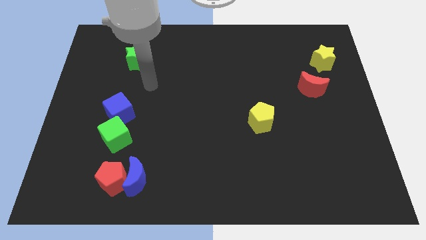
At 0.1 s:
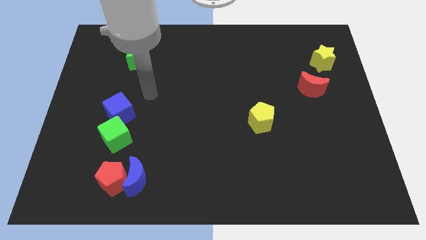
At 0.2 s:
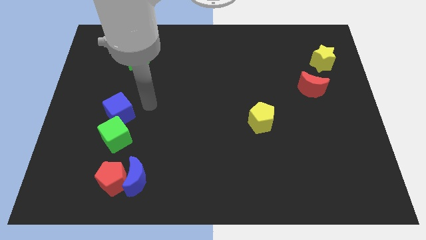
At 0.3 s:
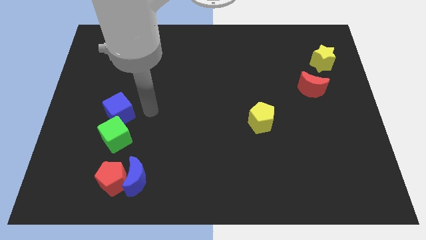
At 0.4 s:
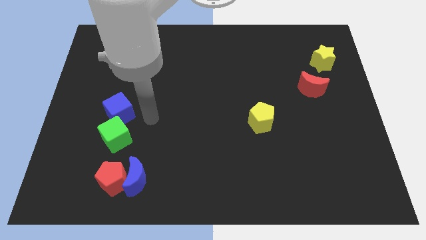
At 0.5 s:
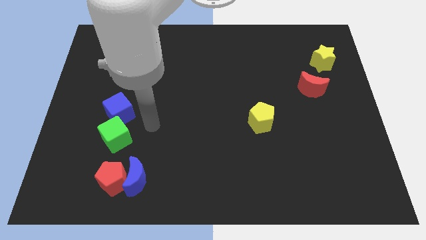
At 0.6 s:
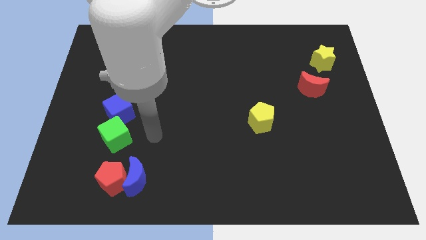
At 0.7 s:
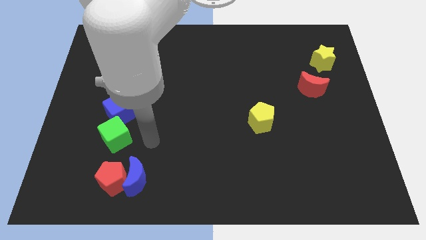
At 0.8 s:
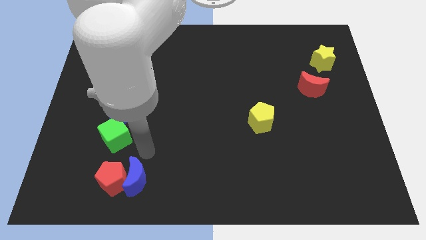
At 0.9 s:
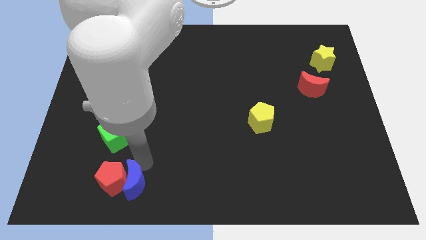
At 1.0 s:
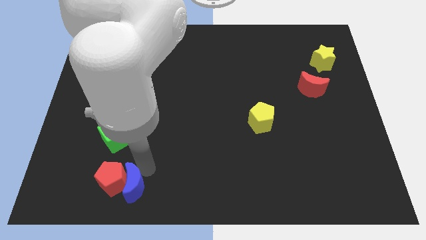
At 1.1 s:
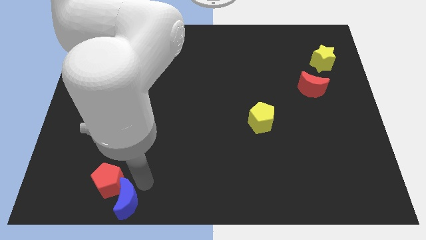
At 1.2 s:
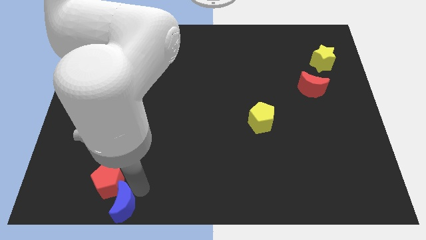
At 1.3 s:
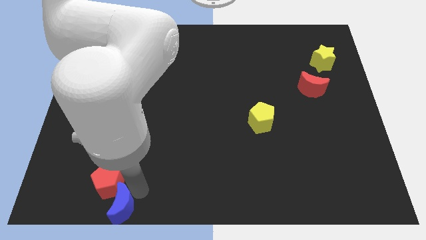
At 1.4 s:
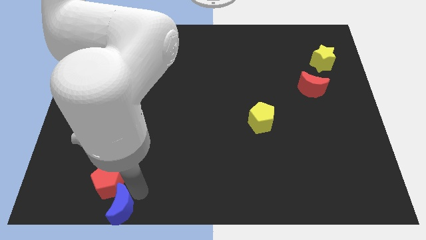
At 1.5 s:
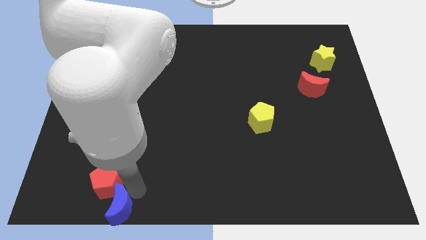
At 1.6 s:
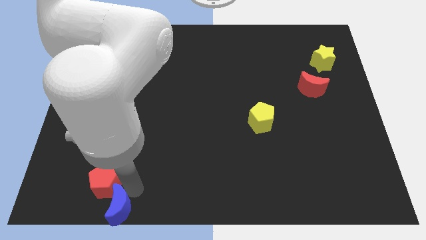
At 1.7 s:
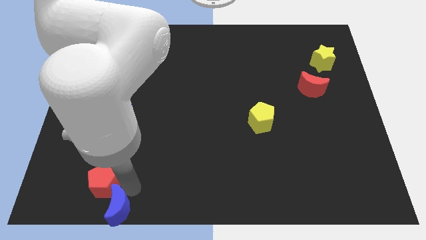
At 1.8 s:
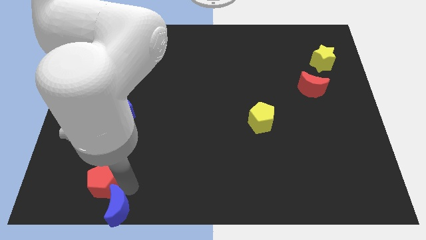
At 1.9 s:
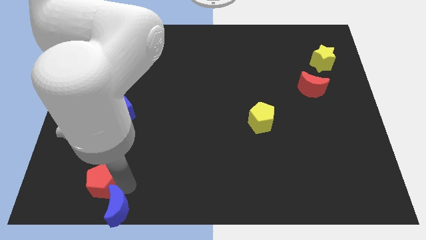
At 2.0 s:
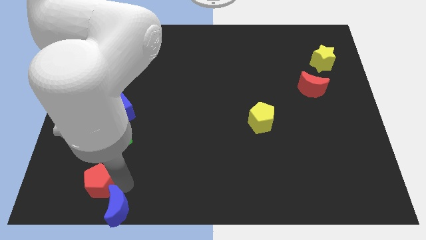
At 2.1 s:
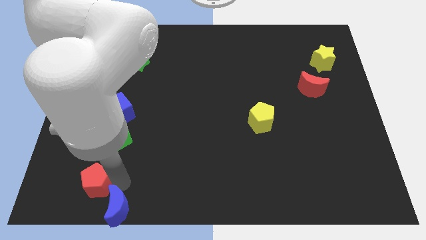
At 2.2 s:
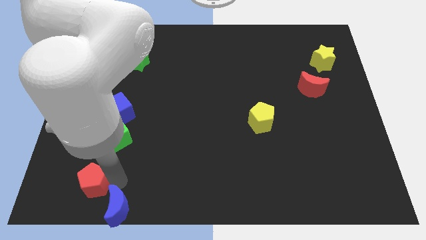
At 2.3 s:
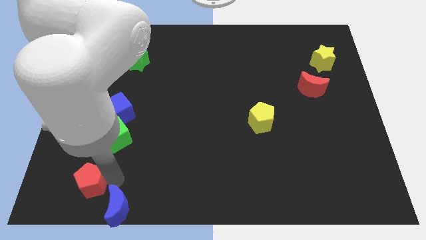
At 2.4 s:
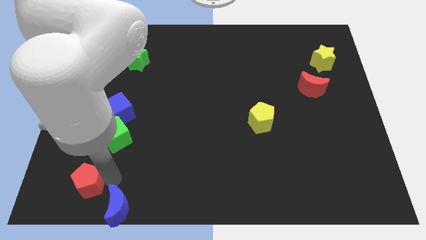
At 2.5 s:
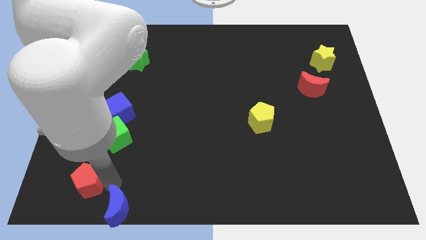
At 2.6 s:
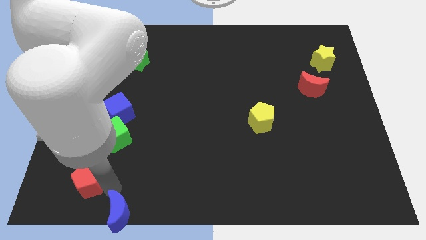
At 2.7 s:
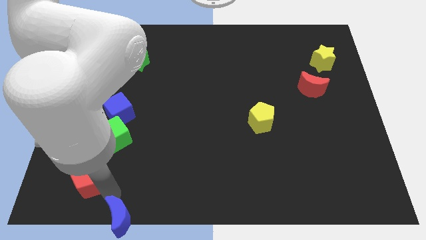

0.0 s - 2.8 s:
pull the red pentagon apart from the blue moon

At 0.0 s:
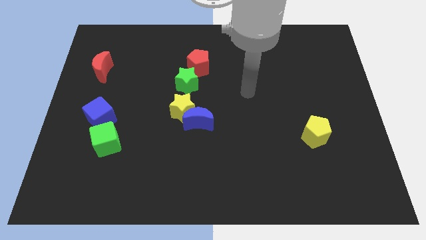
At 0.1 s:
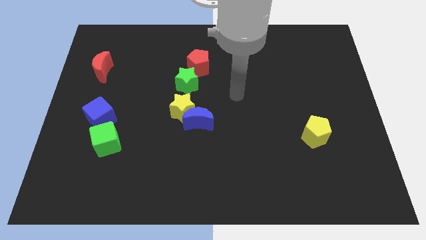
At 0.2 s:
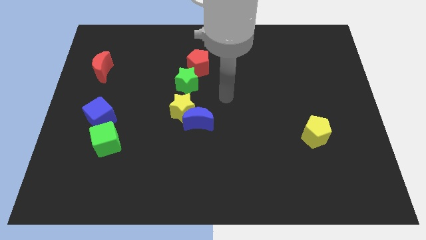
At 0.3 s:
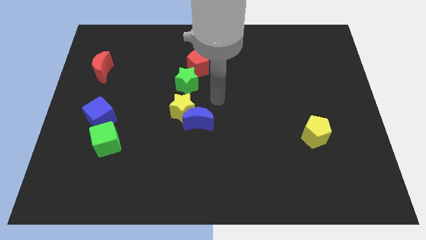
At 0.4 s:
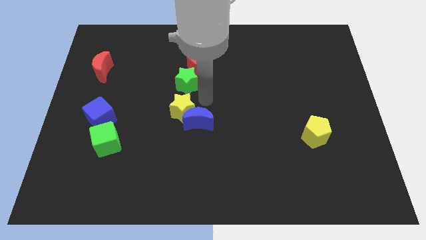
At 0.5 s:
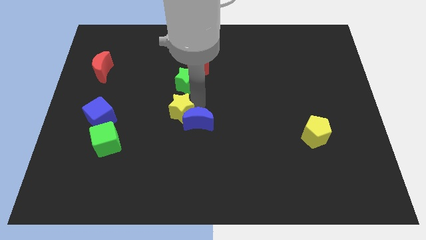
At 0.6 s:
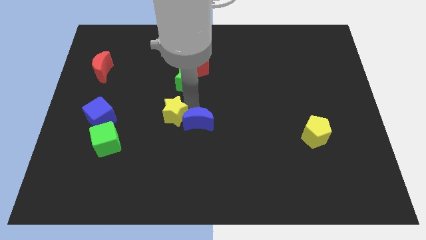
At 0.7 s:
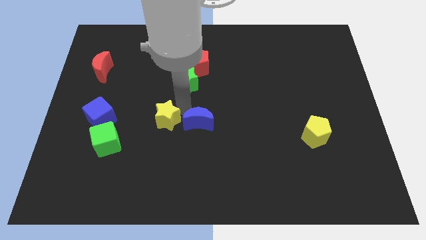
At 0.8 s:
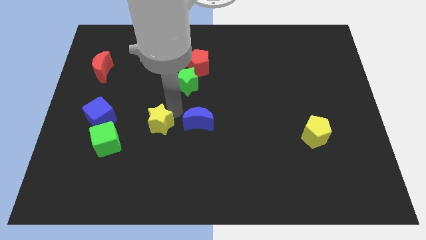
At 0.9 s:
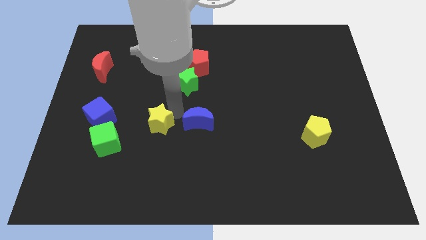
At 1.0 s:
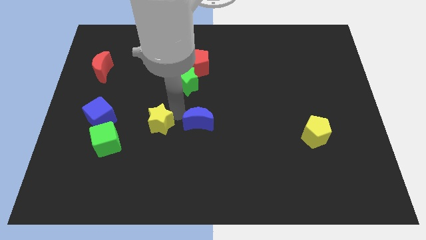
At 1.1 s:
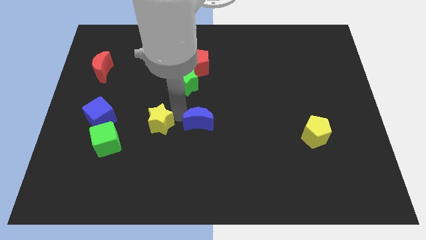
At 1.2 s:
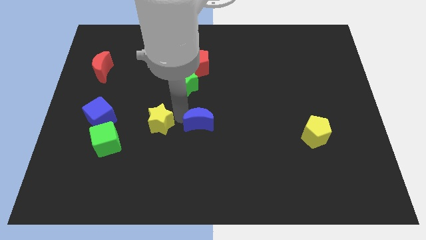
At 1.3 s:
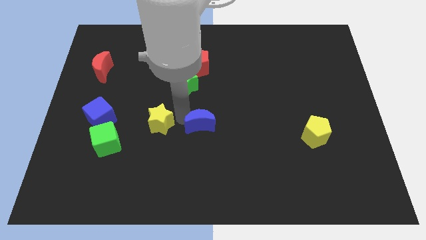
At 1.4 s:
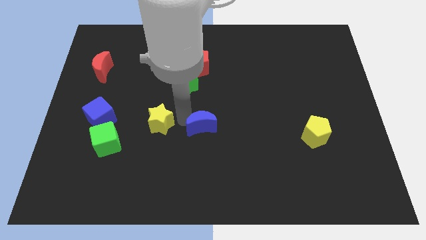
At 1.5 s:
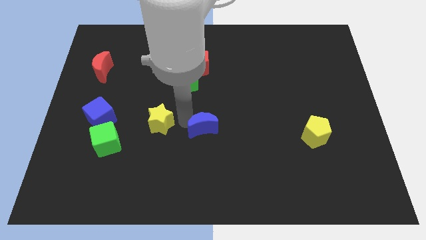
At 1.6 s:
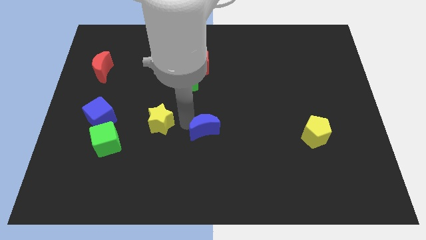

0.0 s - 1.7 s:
separate the blue moon from the yellow star

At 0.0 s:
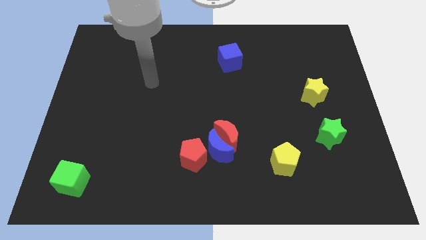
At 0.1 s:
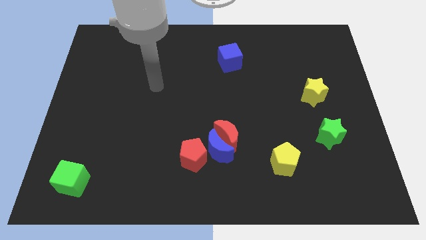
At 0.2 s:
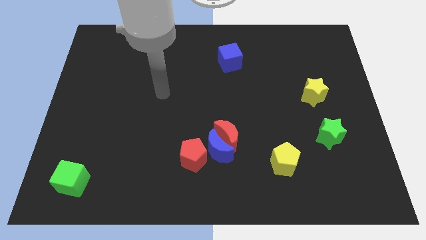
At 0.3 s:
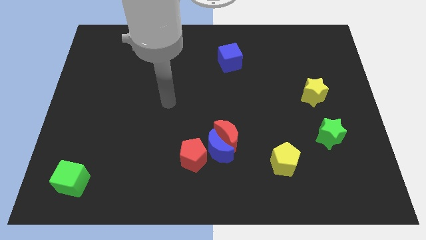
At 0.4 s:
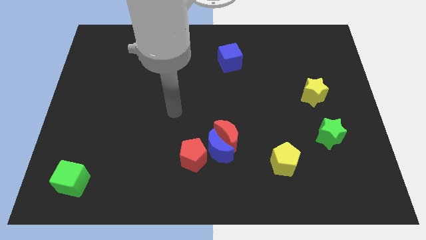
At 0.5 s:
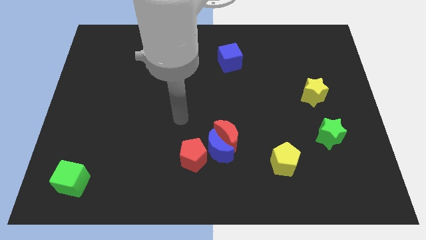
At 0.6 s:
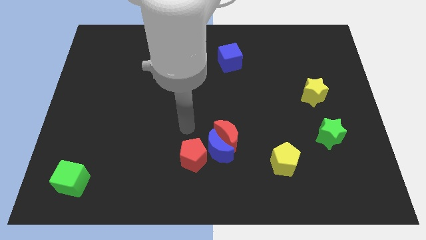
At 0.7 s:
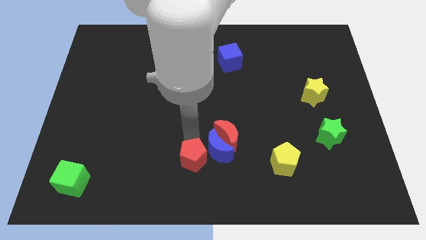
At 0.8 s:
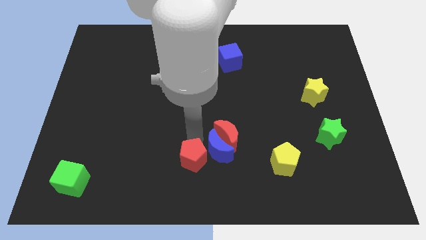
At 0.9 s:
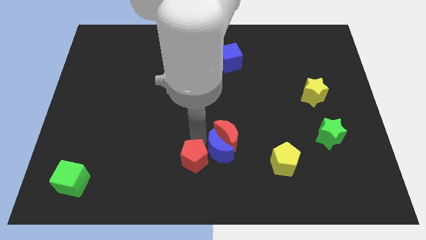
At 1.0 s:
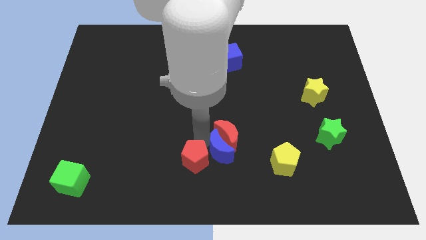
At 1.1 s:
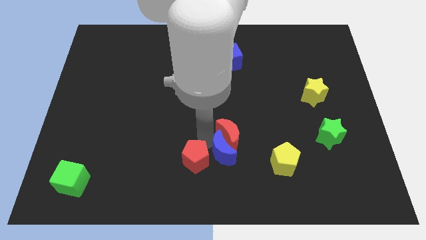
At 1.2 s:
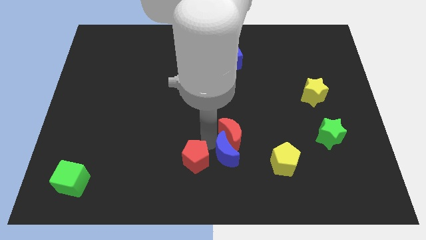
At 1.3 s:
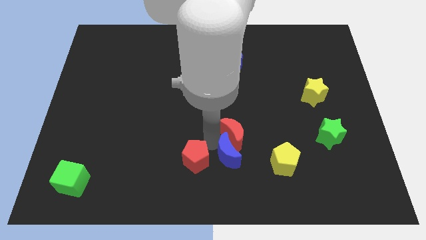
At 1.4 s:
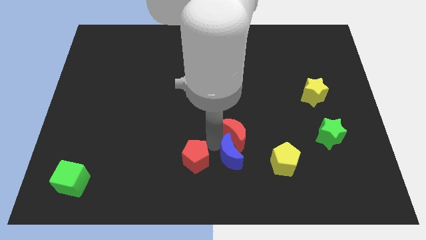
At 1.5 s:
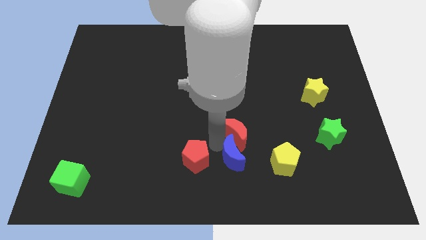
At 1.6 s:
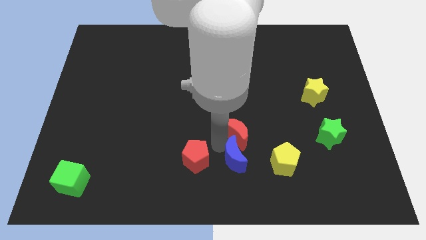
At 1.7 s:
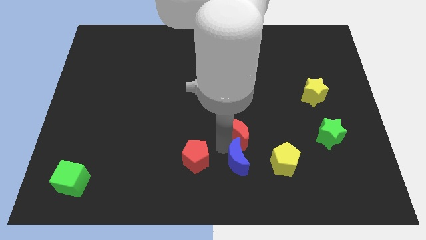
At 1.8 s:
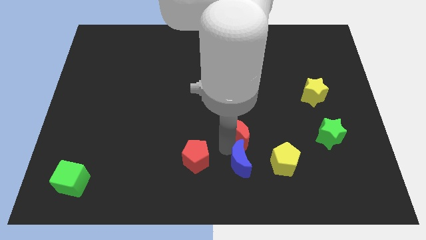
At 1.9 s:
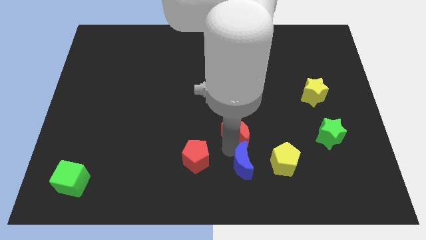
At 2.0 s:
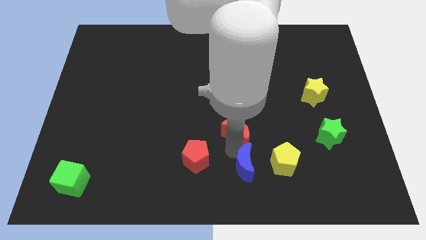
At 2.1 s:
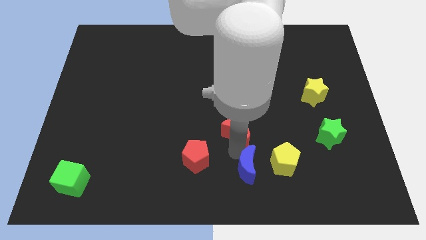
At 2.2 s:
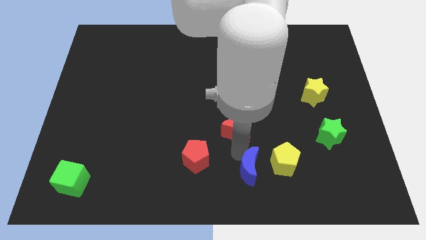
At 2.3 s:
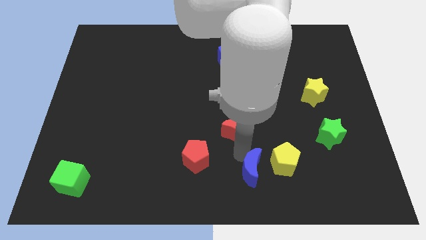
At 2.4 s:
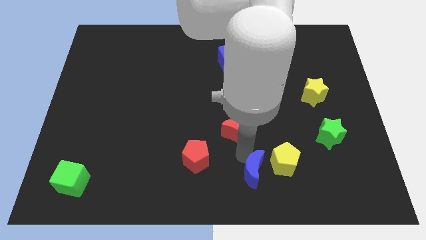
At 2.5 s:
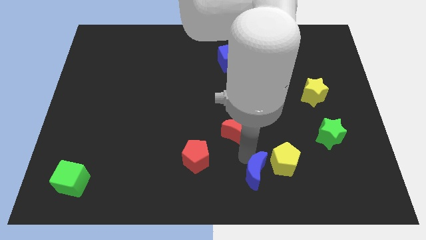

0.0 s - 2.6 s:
pull the blue moon apart from the red moon and red pentagon

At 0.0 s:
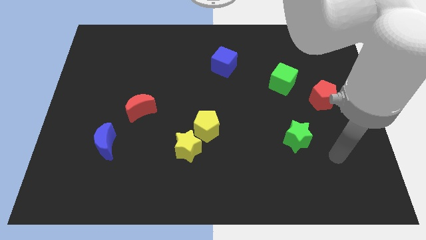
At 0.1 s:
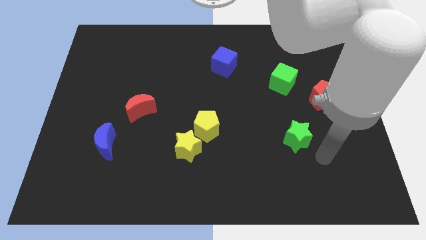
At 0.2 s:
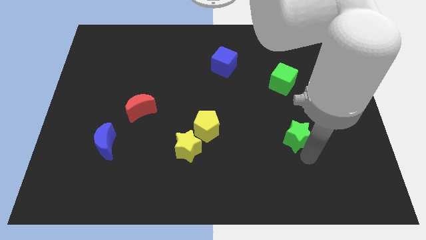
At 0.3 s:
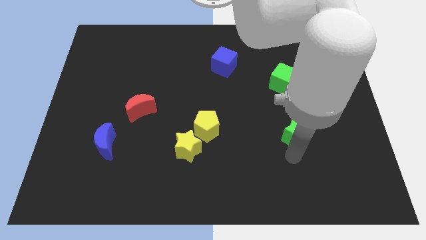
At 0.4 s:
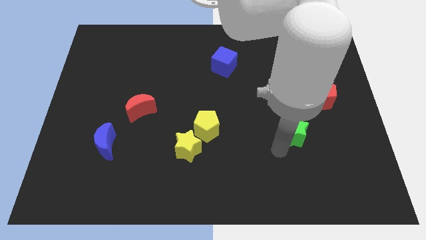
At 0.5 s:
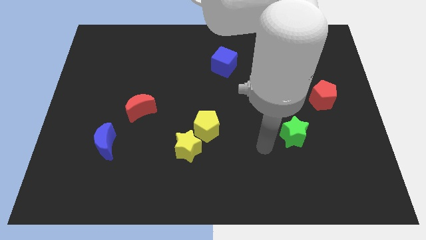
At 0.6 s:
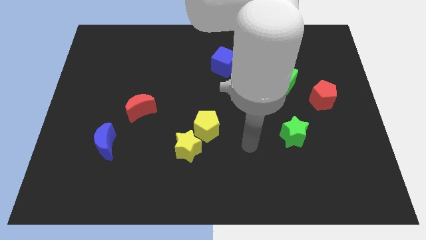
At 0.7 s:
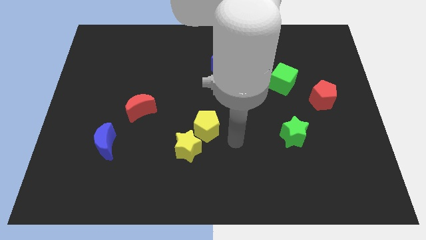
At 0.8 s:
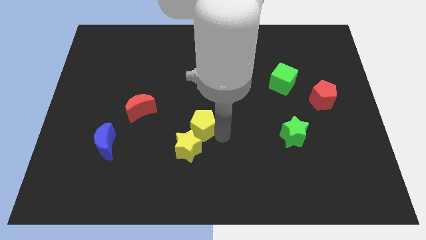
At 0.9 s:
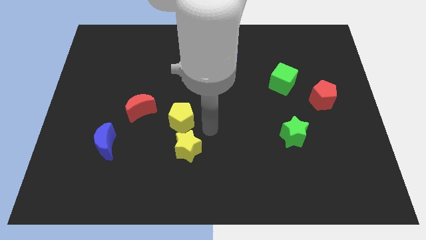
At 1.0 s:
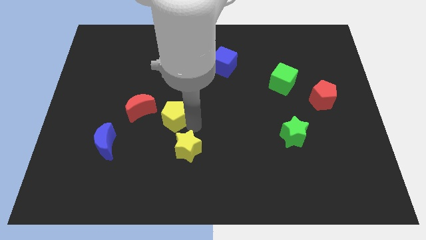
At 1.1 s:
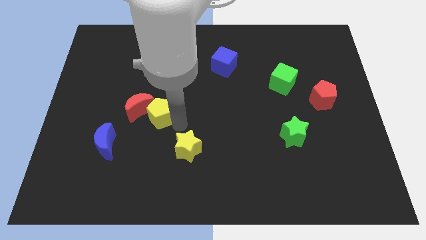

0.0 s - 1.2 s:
move the yellow star away from the yellow pentagon

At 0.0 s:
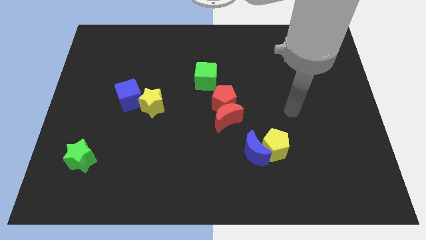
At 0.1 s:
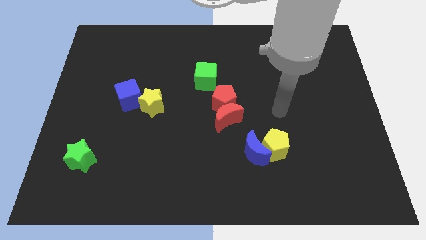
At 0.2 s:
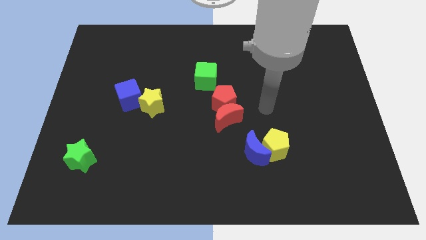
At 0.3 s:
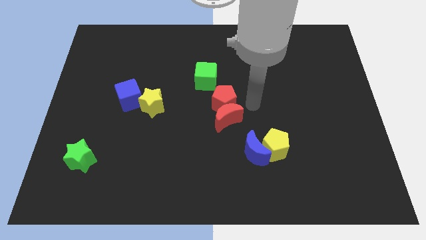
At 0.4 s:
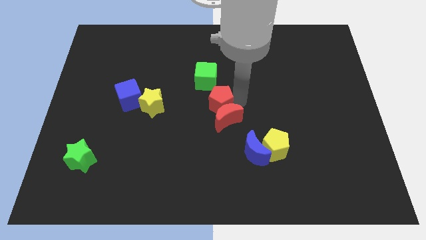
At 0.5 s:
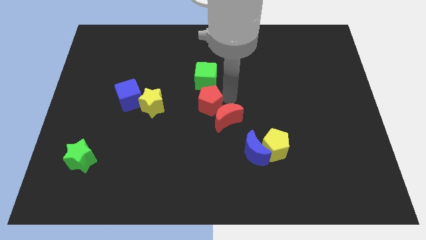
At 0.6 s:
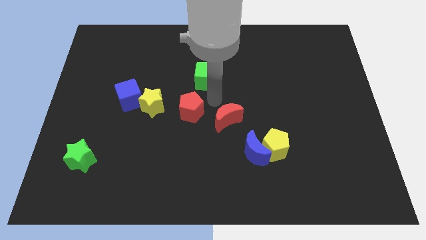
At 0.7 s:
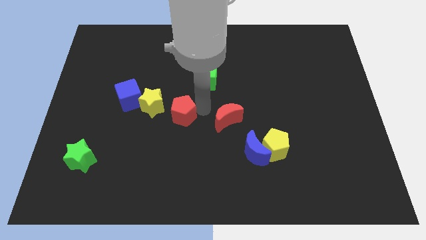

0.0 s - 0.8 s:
move the red moon away from the red pentagon

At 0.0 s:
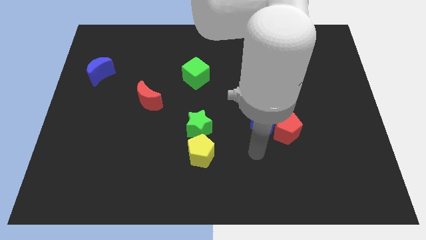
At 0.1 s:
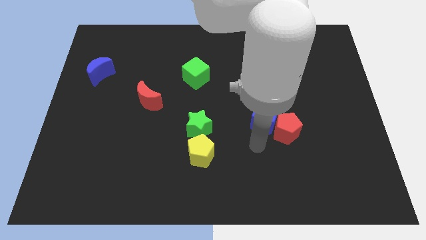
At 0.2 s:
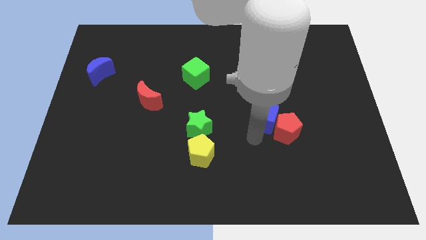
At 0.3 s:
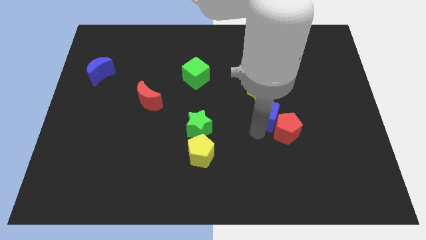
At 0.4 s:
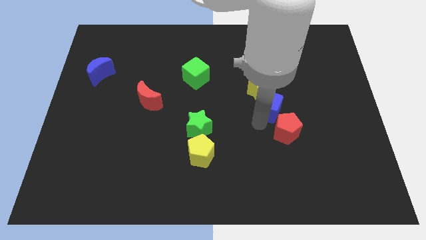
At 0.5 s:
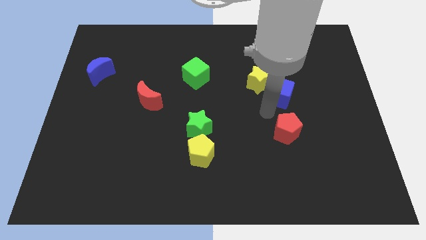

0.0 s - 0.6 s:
move the red pentagon away from the blue cube
